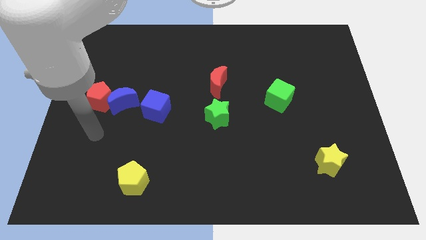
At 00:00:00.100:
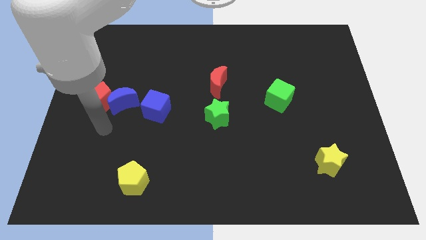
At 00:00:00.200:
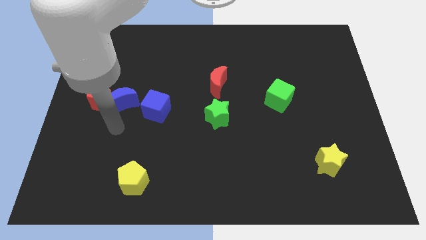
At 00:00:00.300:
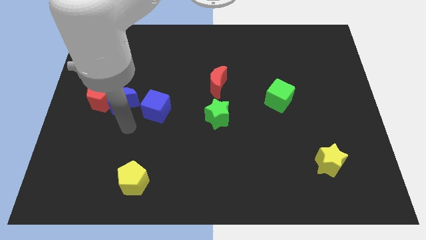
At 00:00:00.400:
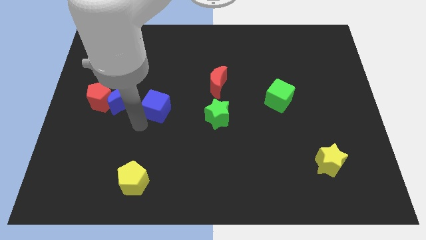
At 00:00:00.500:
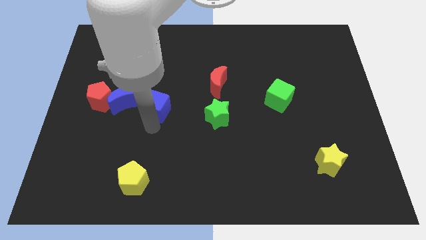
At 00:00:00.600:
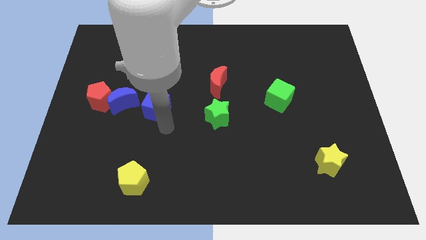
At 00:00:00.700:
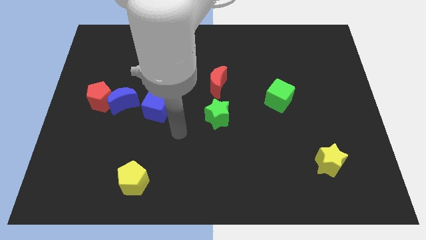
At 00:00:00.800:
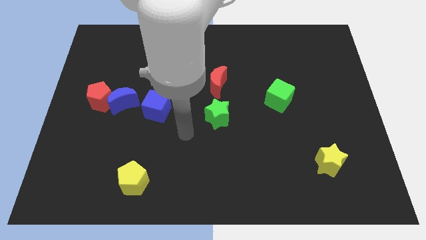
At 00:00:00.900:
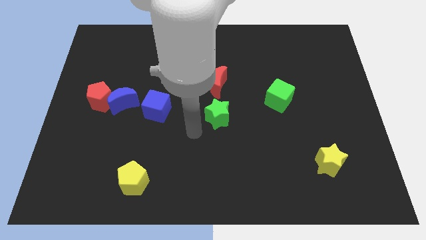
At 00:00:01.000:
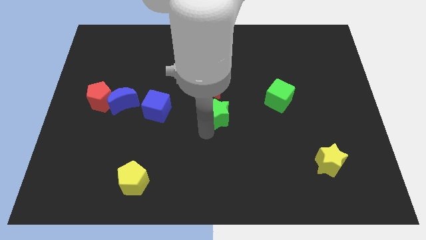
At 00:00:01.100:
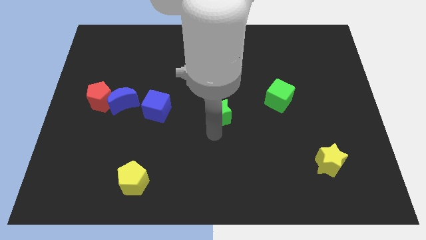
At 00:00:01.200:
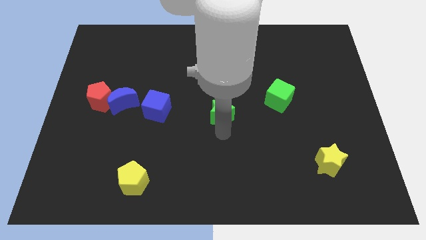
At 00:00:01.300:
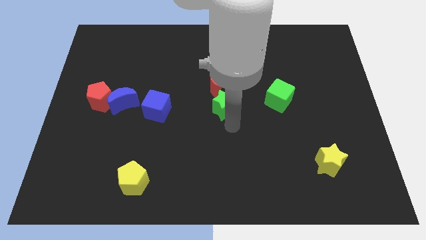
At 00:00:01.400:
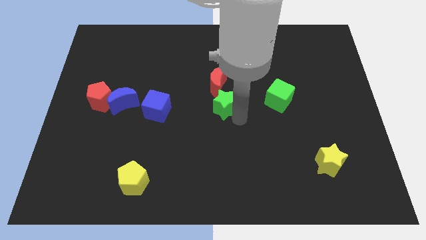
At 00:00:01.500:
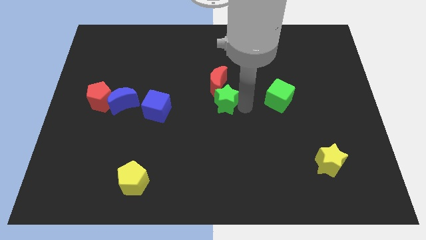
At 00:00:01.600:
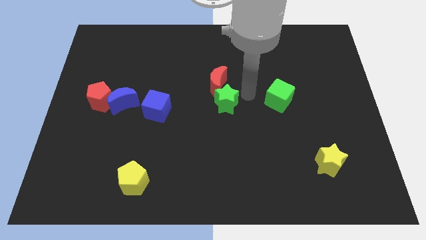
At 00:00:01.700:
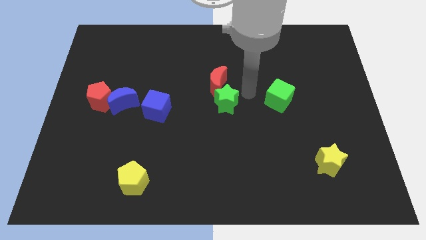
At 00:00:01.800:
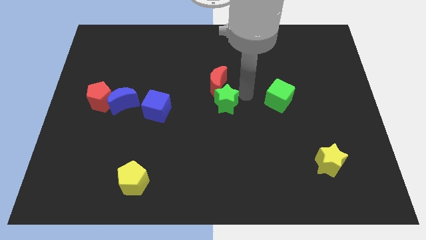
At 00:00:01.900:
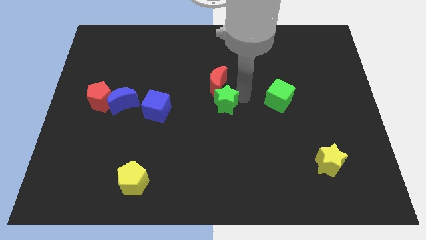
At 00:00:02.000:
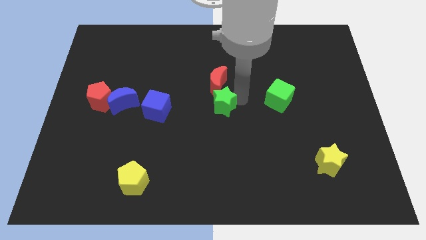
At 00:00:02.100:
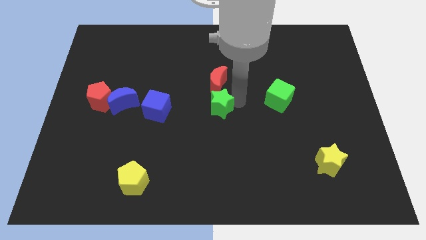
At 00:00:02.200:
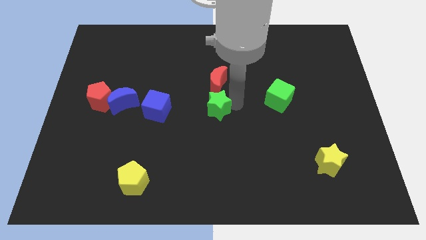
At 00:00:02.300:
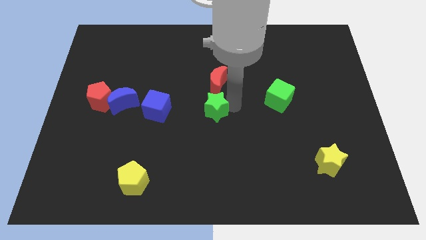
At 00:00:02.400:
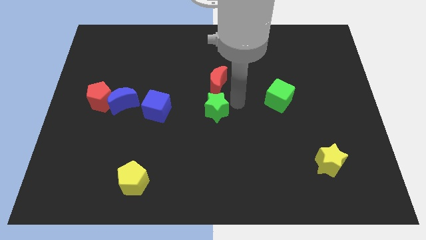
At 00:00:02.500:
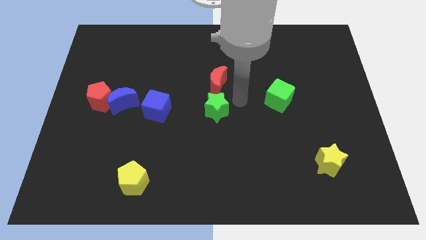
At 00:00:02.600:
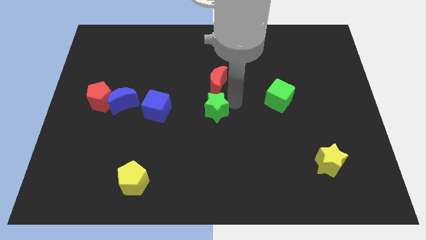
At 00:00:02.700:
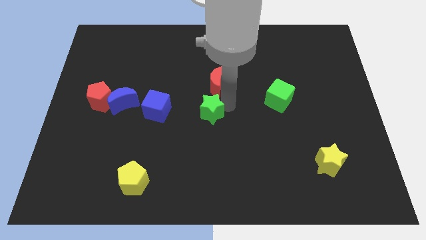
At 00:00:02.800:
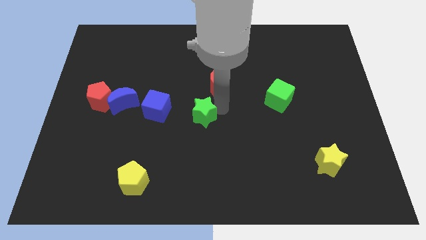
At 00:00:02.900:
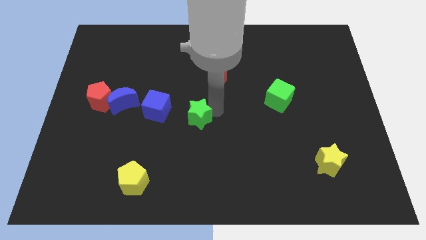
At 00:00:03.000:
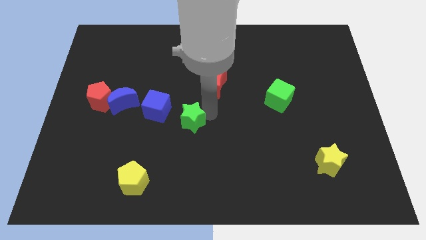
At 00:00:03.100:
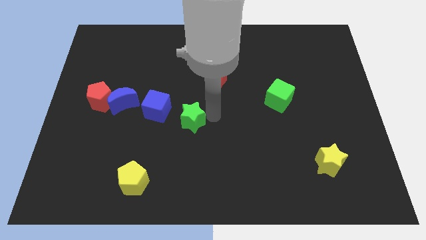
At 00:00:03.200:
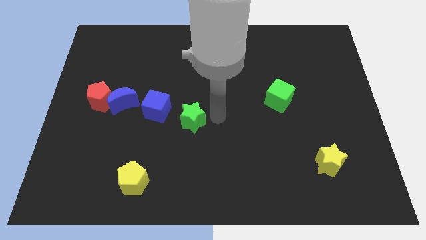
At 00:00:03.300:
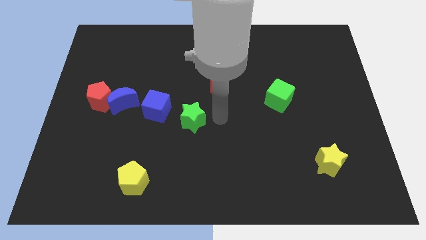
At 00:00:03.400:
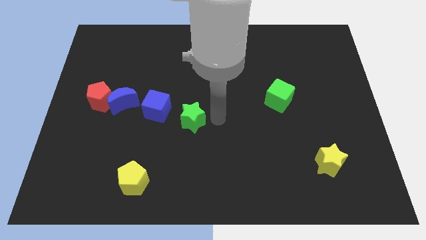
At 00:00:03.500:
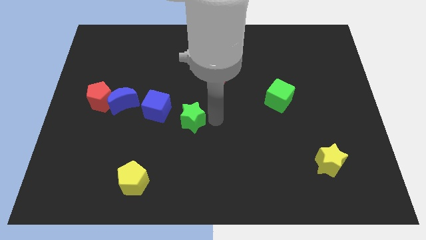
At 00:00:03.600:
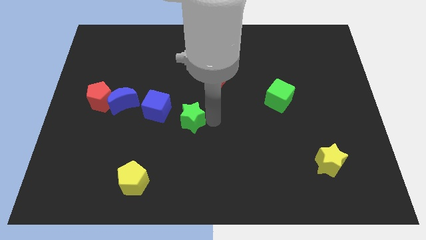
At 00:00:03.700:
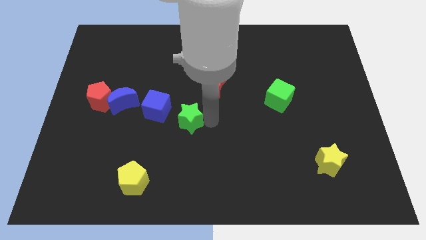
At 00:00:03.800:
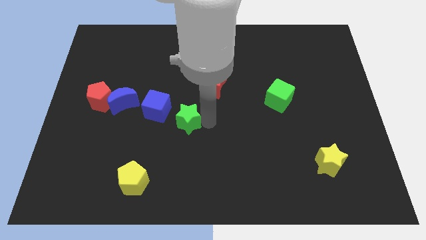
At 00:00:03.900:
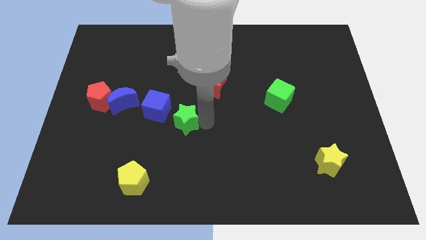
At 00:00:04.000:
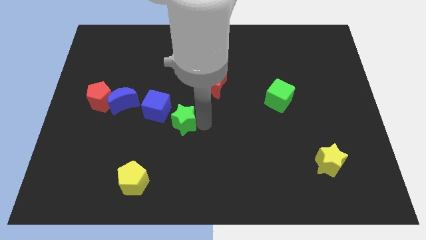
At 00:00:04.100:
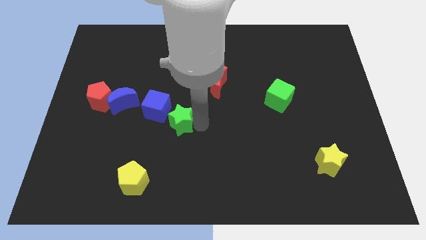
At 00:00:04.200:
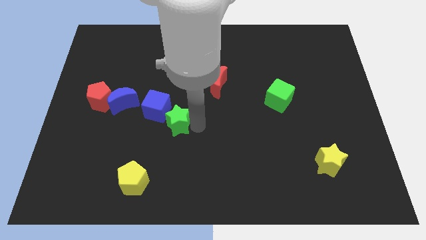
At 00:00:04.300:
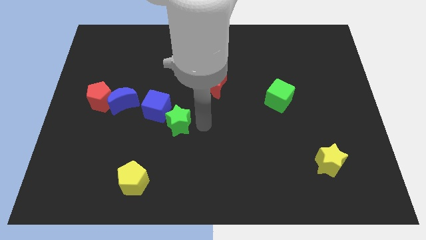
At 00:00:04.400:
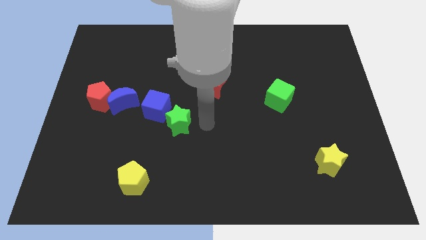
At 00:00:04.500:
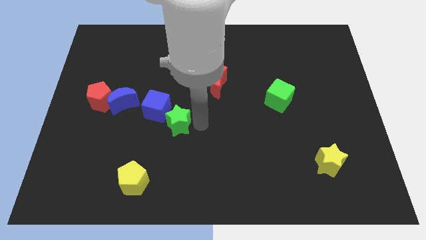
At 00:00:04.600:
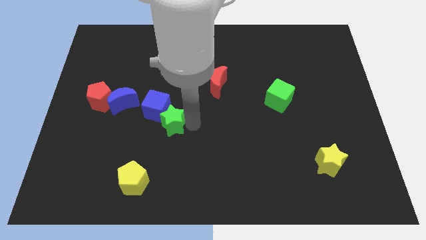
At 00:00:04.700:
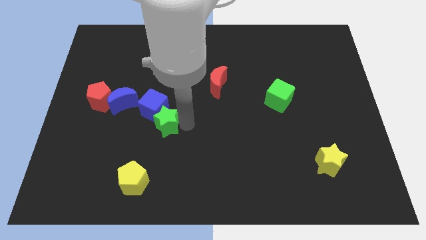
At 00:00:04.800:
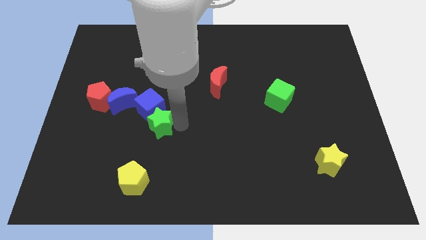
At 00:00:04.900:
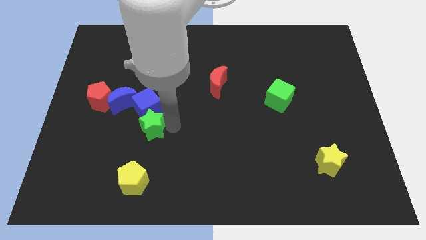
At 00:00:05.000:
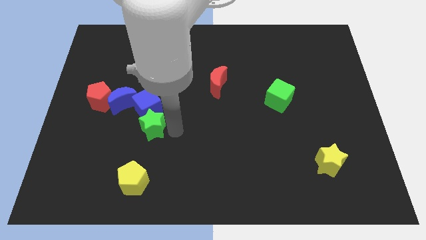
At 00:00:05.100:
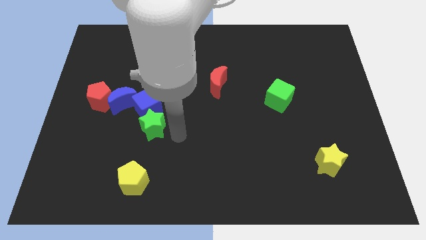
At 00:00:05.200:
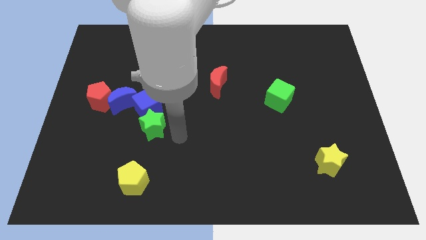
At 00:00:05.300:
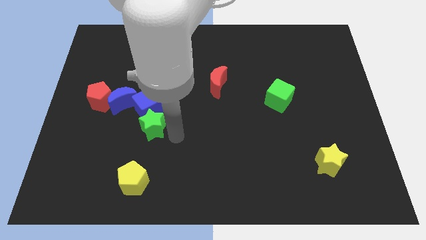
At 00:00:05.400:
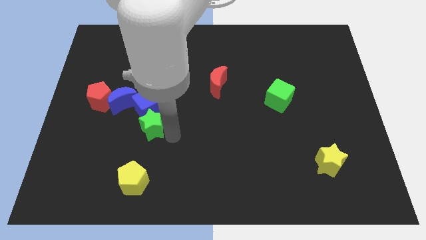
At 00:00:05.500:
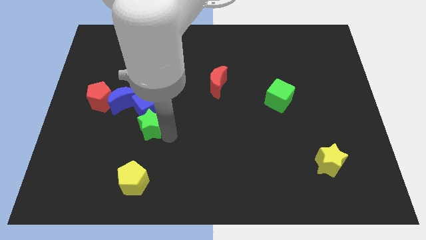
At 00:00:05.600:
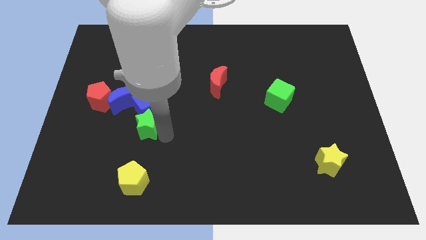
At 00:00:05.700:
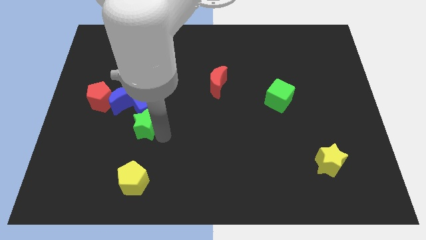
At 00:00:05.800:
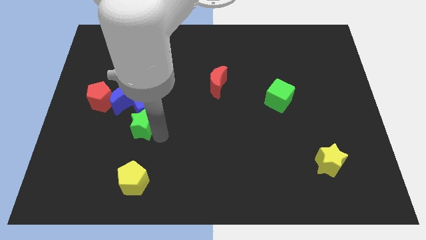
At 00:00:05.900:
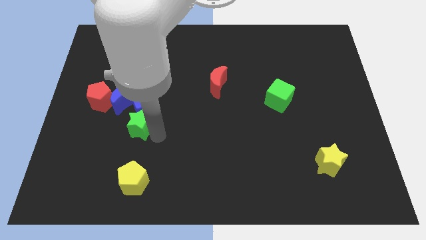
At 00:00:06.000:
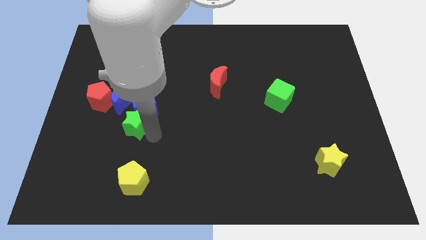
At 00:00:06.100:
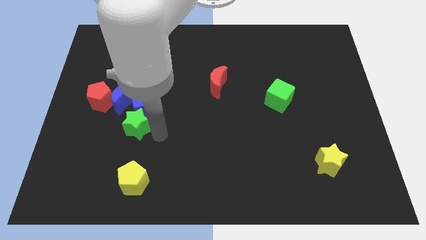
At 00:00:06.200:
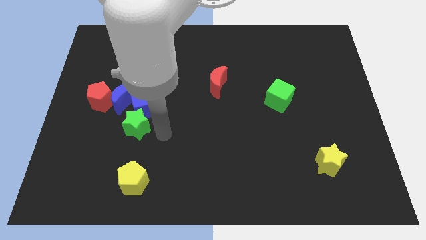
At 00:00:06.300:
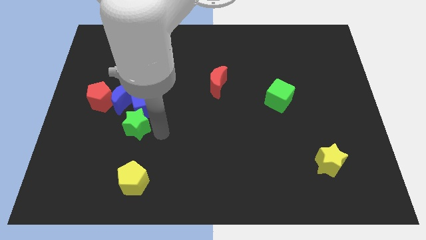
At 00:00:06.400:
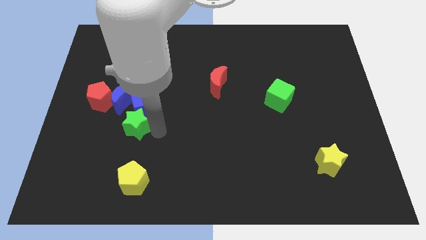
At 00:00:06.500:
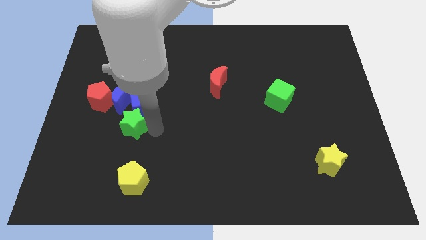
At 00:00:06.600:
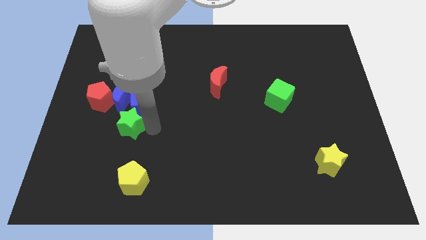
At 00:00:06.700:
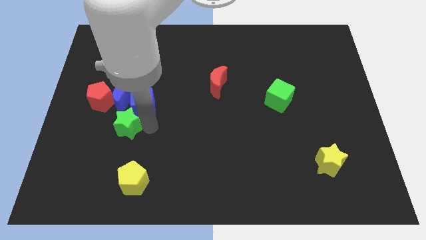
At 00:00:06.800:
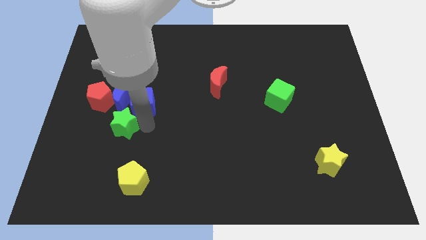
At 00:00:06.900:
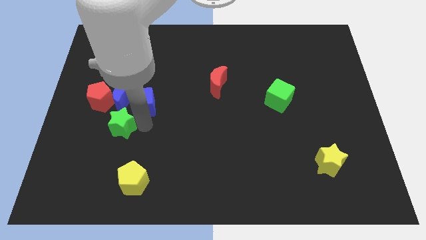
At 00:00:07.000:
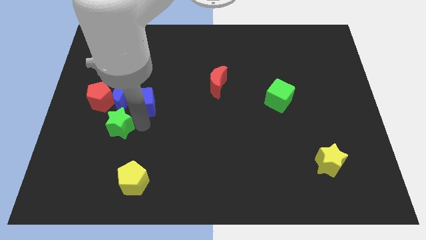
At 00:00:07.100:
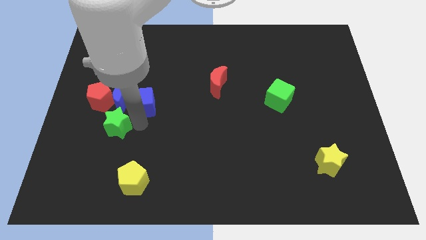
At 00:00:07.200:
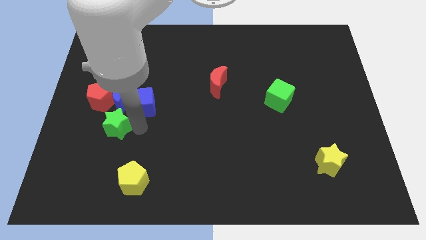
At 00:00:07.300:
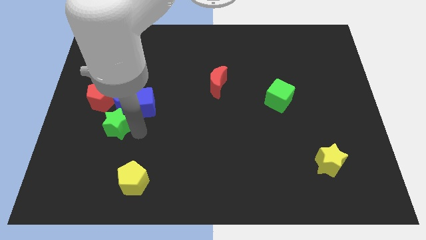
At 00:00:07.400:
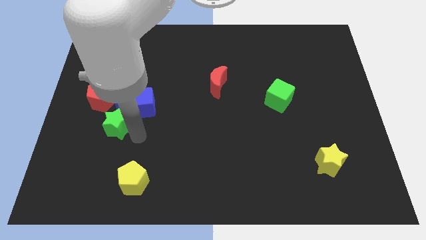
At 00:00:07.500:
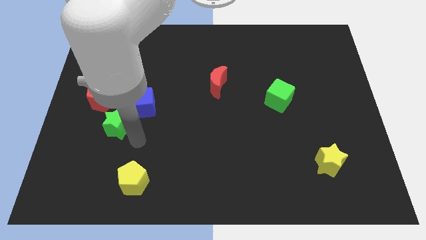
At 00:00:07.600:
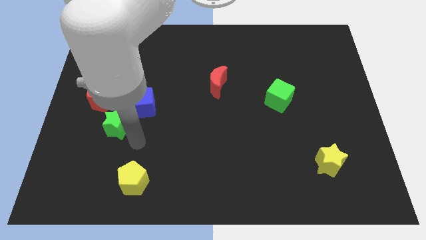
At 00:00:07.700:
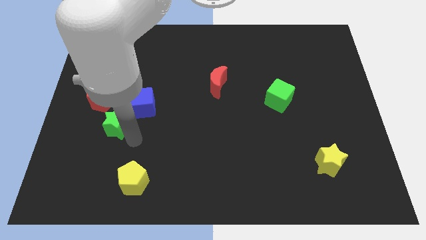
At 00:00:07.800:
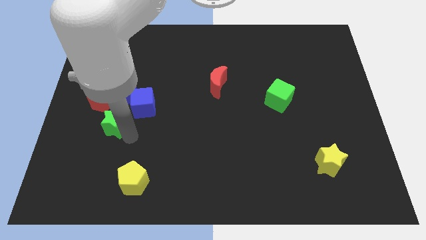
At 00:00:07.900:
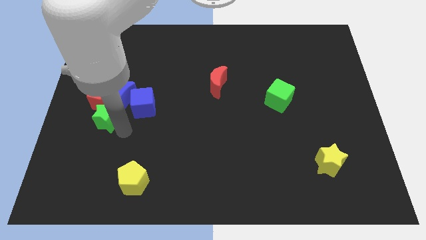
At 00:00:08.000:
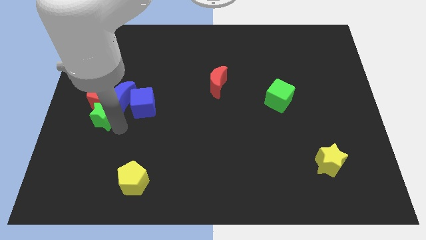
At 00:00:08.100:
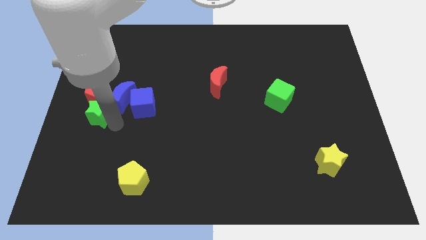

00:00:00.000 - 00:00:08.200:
slide the green star to the center left
